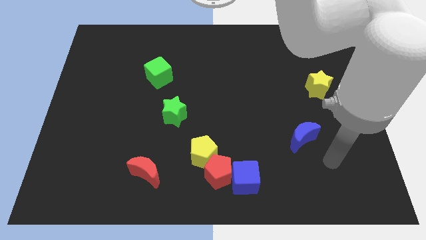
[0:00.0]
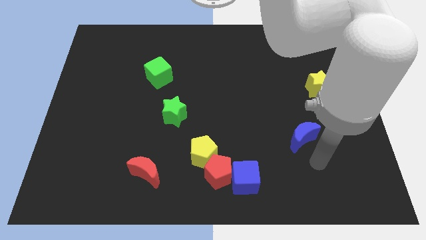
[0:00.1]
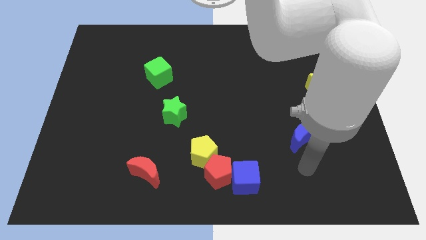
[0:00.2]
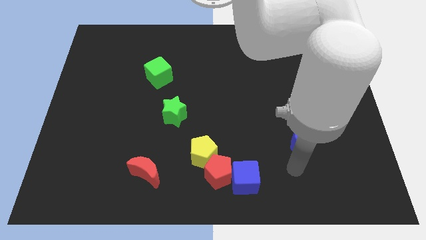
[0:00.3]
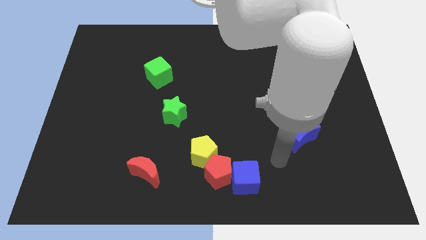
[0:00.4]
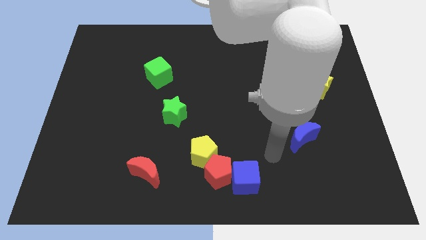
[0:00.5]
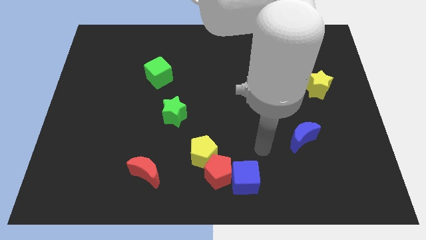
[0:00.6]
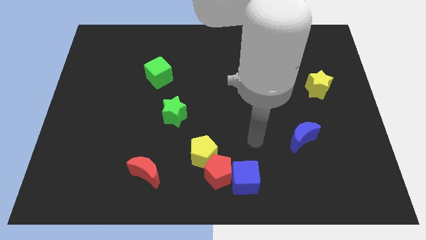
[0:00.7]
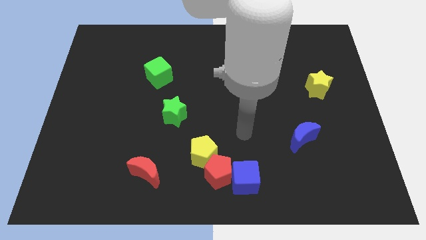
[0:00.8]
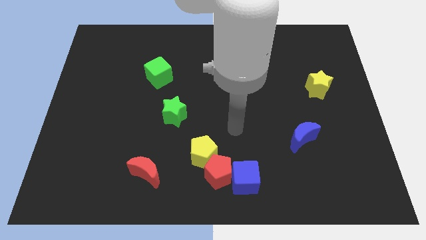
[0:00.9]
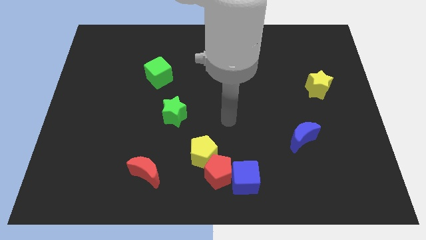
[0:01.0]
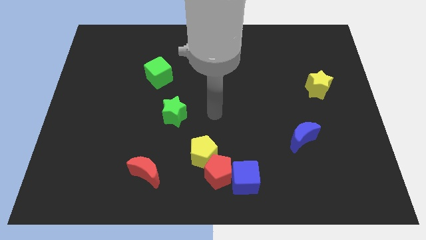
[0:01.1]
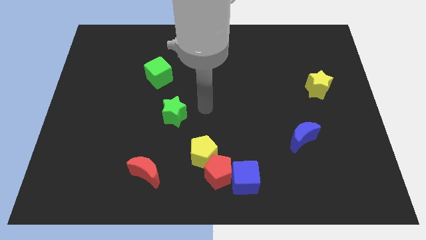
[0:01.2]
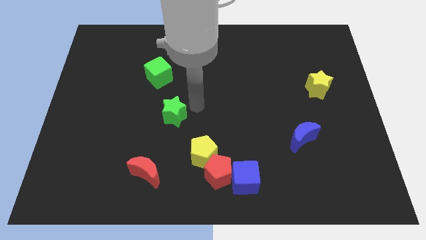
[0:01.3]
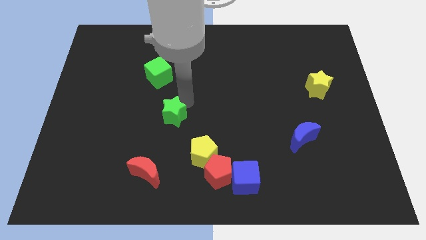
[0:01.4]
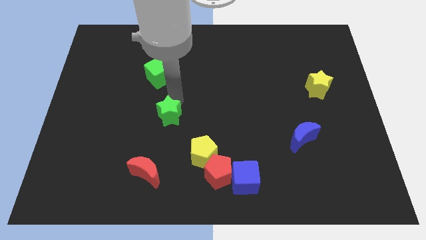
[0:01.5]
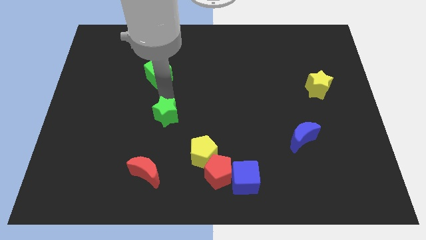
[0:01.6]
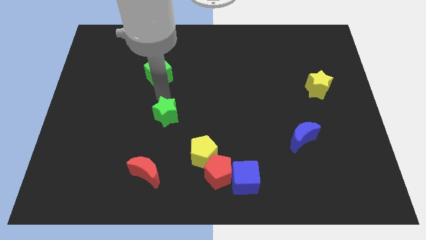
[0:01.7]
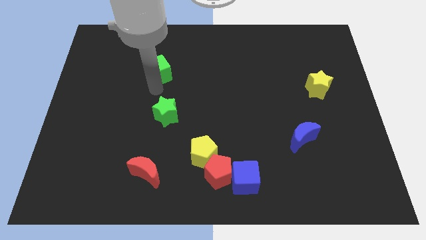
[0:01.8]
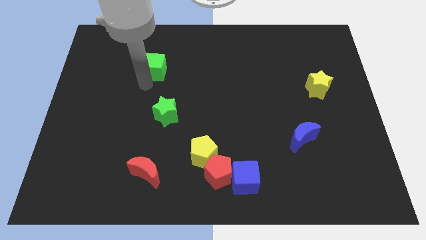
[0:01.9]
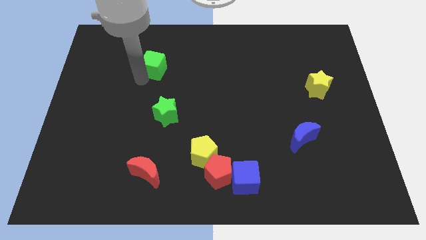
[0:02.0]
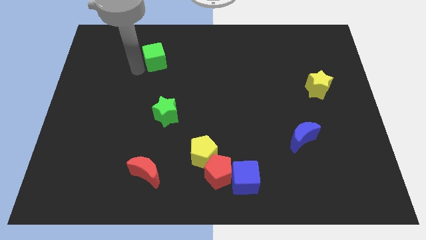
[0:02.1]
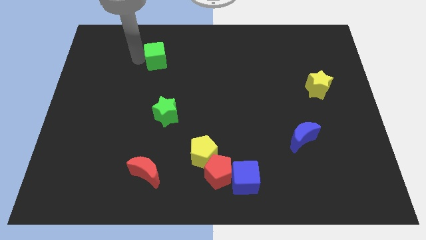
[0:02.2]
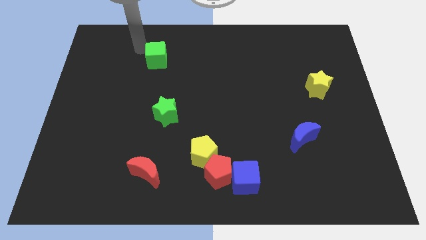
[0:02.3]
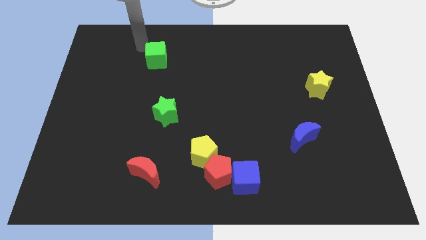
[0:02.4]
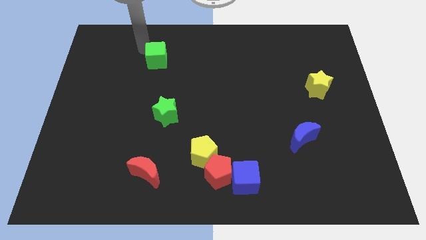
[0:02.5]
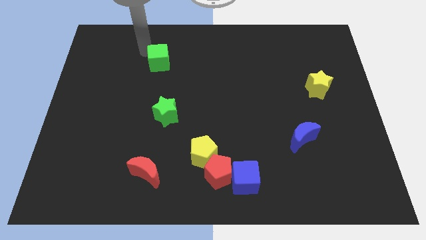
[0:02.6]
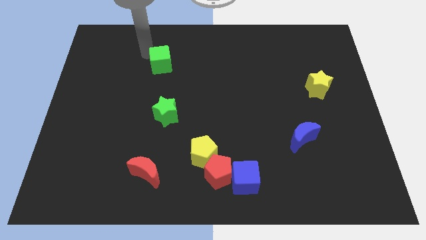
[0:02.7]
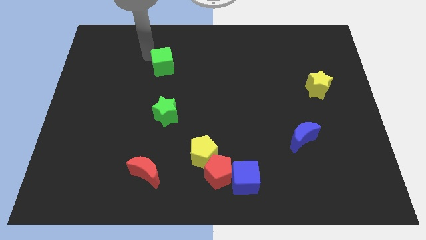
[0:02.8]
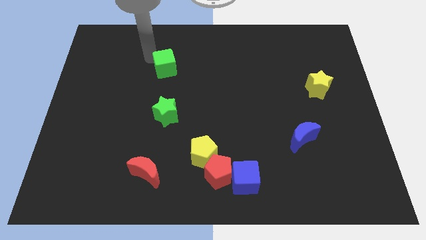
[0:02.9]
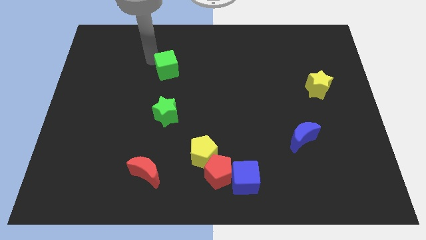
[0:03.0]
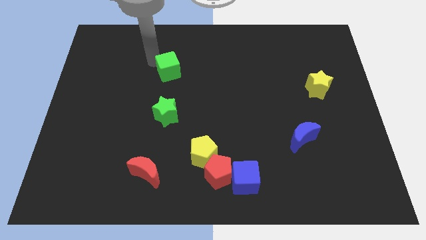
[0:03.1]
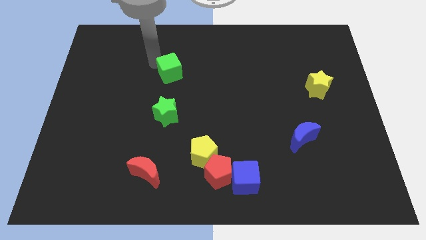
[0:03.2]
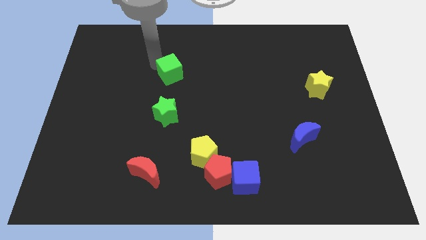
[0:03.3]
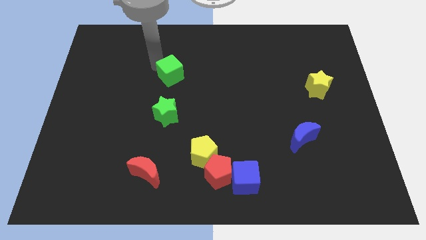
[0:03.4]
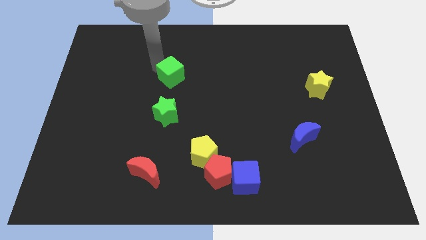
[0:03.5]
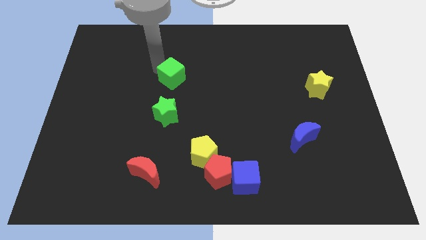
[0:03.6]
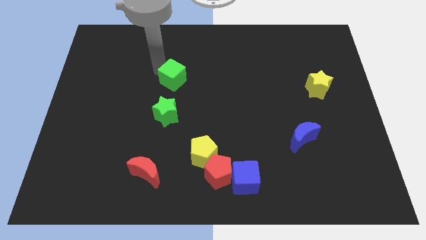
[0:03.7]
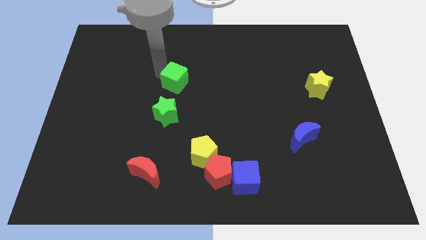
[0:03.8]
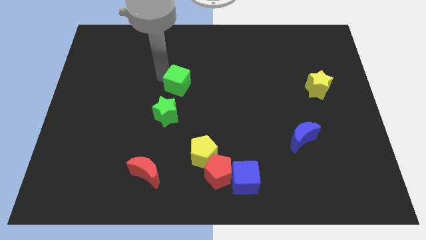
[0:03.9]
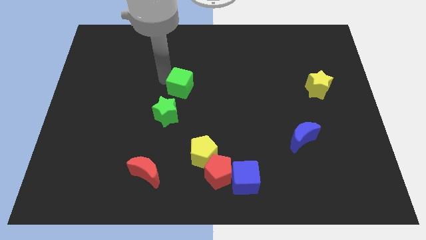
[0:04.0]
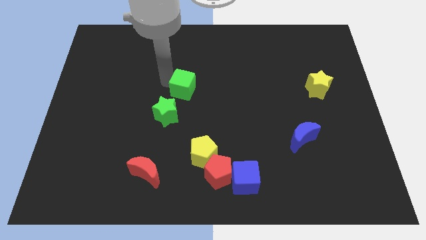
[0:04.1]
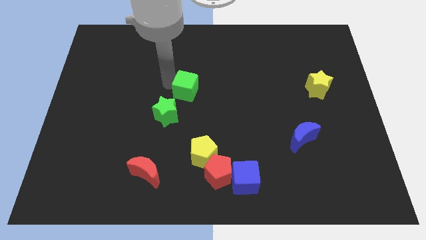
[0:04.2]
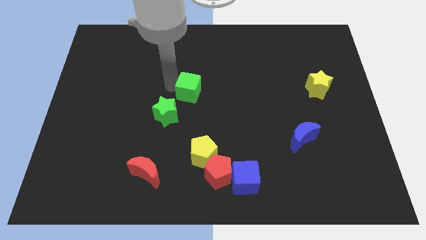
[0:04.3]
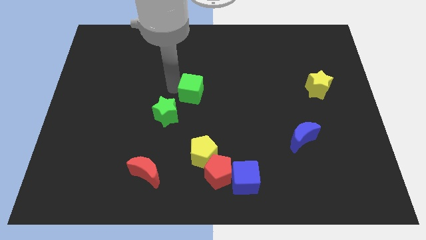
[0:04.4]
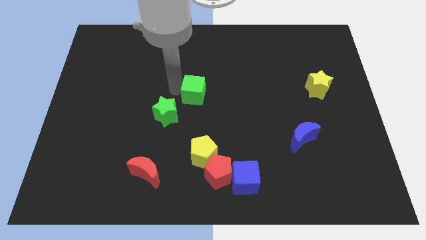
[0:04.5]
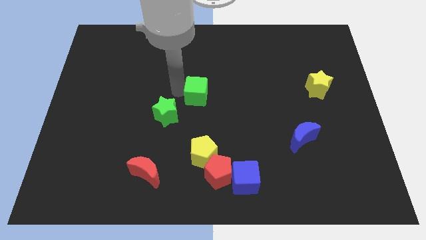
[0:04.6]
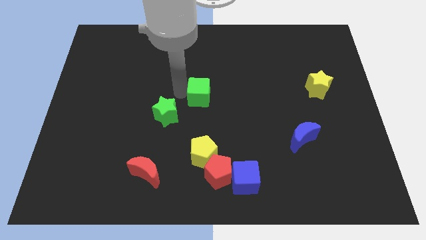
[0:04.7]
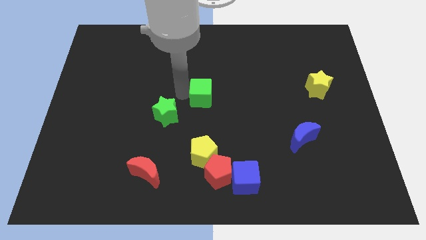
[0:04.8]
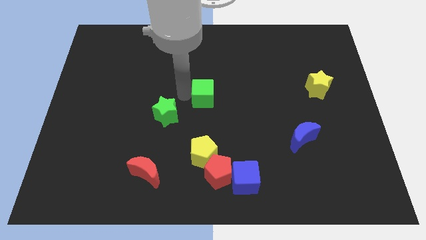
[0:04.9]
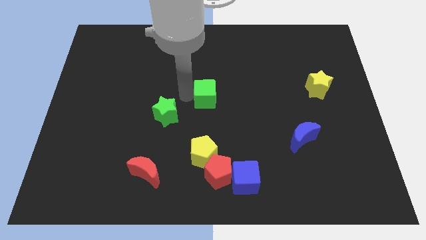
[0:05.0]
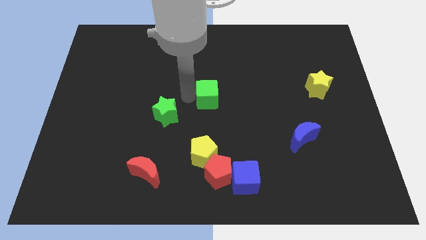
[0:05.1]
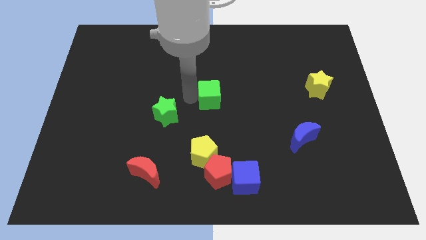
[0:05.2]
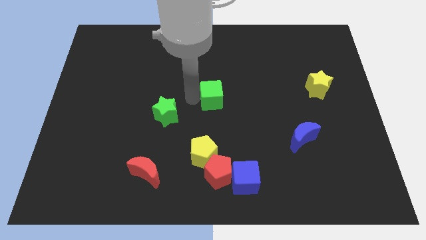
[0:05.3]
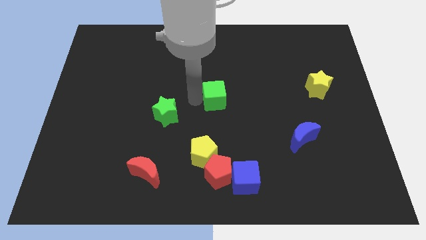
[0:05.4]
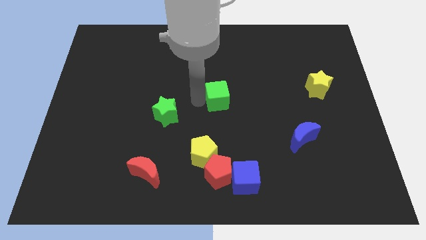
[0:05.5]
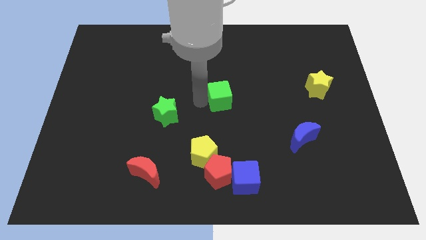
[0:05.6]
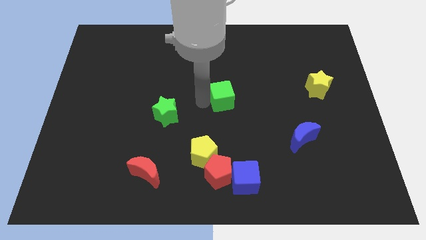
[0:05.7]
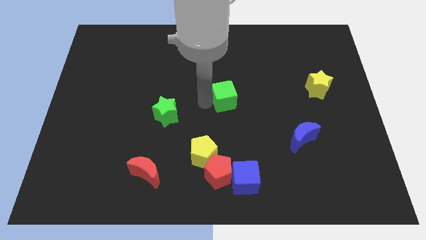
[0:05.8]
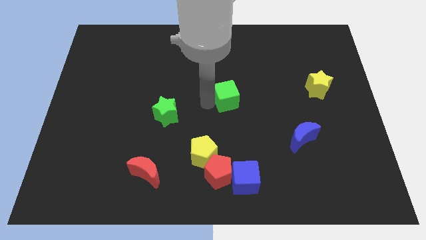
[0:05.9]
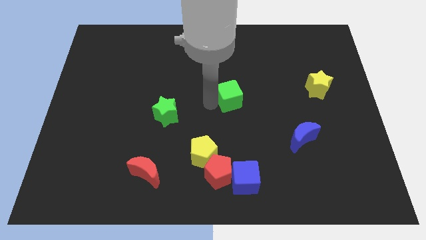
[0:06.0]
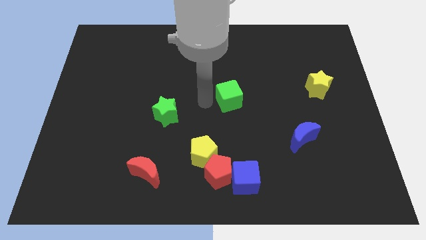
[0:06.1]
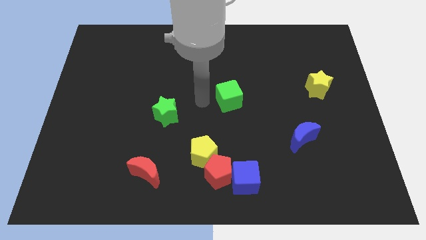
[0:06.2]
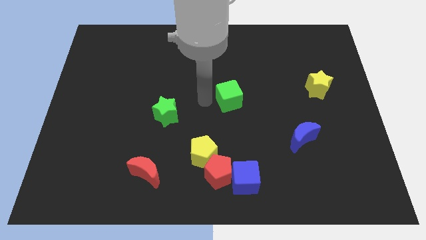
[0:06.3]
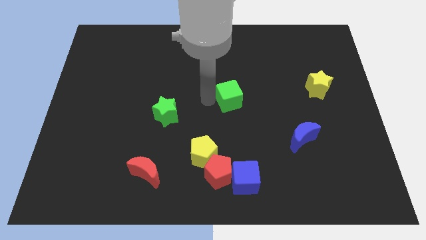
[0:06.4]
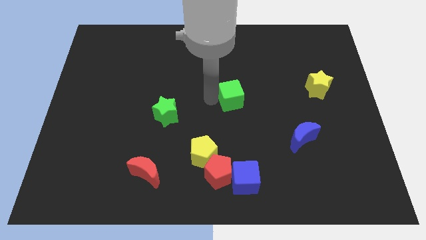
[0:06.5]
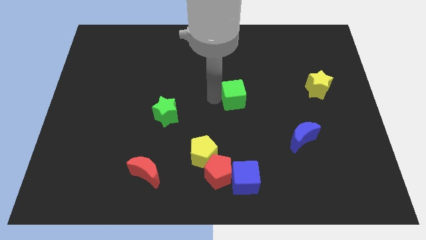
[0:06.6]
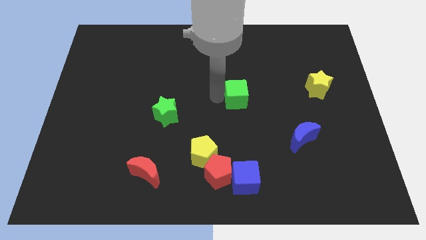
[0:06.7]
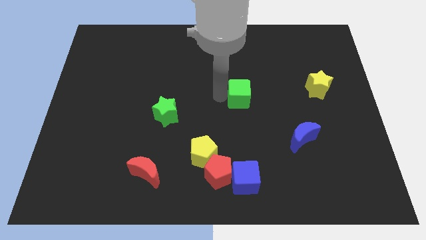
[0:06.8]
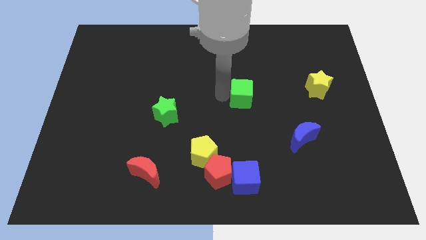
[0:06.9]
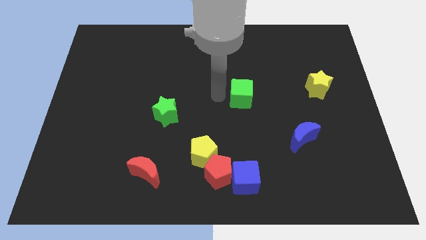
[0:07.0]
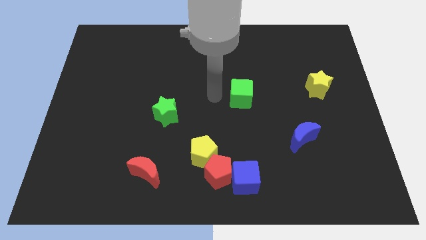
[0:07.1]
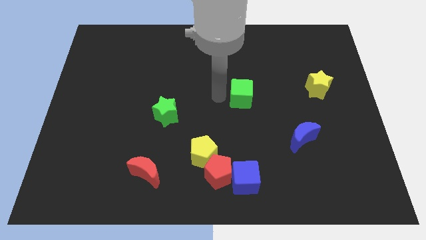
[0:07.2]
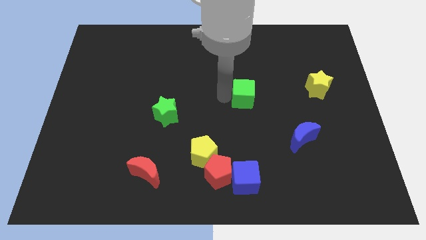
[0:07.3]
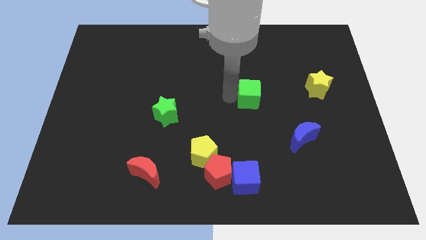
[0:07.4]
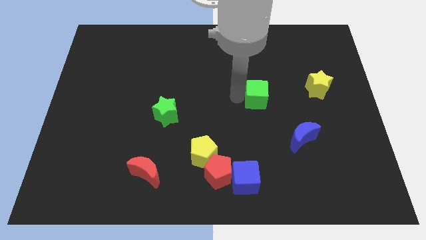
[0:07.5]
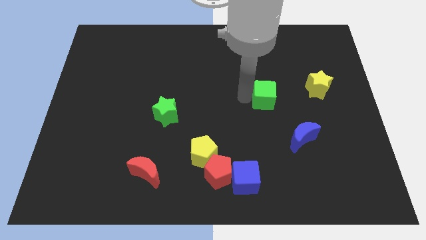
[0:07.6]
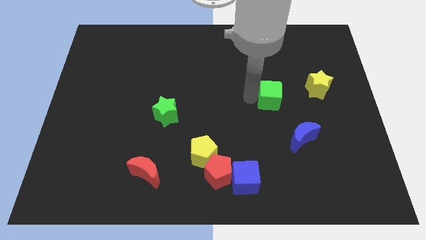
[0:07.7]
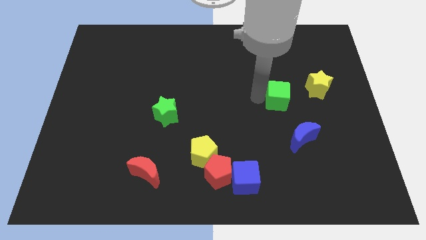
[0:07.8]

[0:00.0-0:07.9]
move the green cube to the bottom left side of the yellow star
